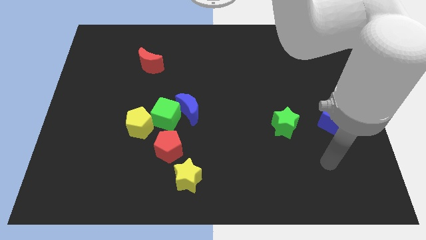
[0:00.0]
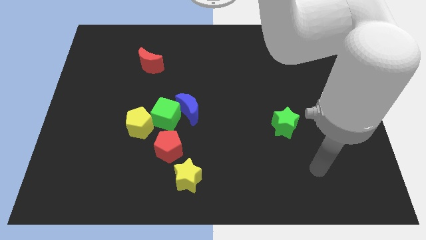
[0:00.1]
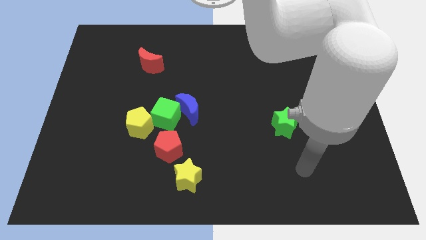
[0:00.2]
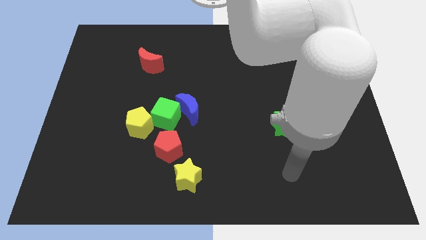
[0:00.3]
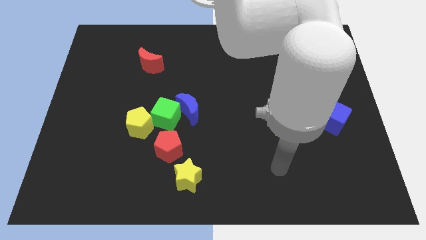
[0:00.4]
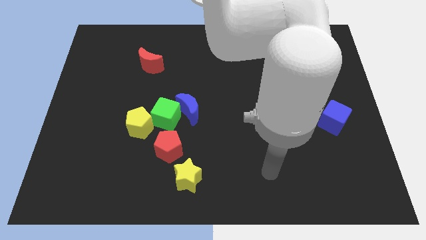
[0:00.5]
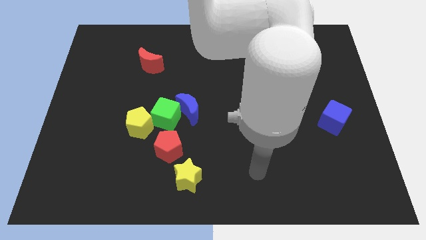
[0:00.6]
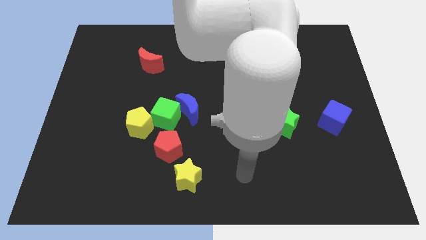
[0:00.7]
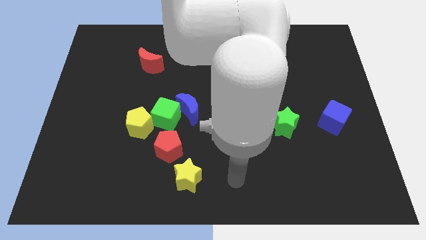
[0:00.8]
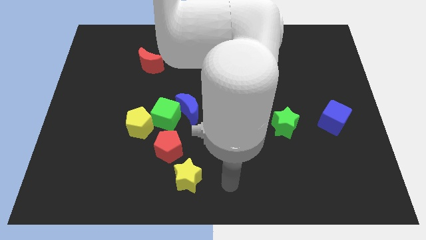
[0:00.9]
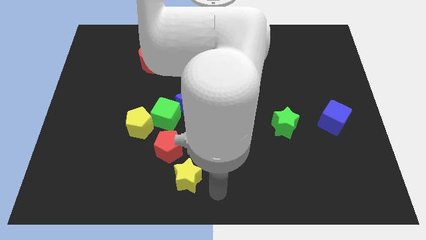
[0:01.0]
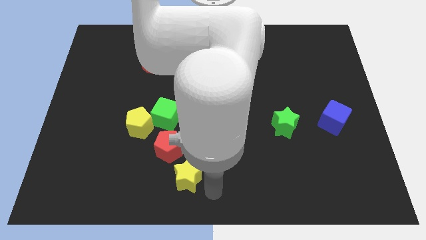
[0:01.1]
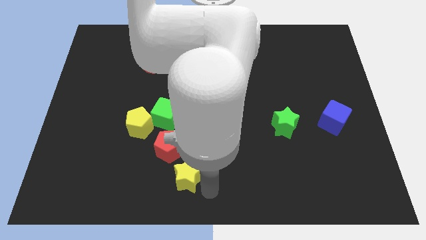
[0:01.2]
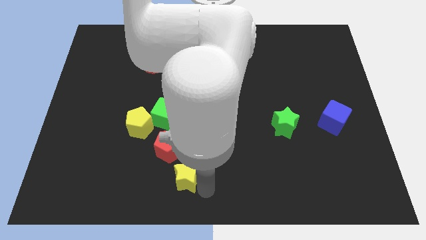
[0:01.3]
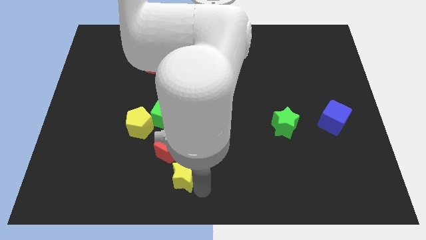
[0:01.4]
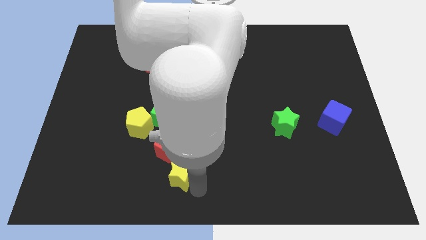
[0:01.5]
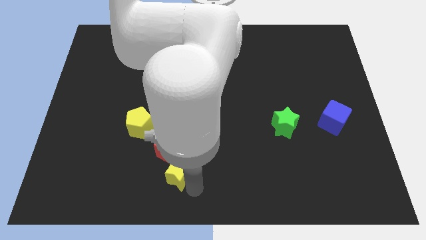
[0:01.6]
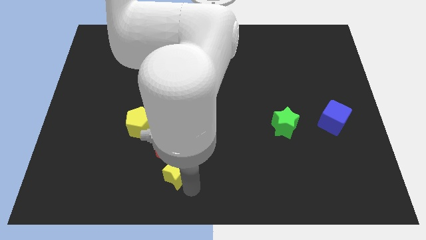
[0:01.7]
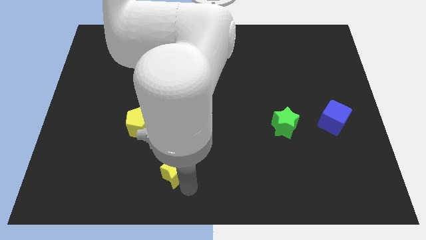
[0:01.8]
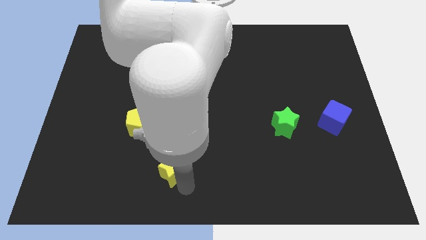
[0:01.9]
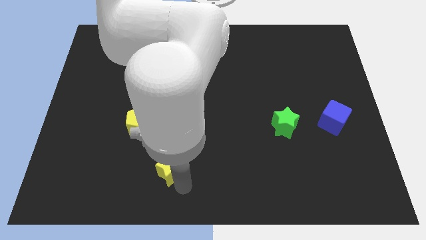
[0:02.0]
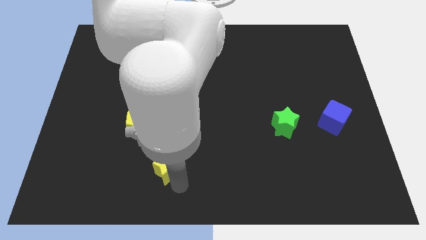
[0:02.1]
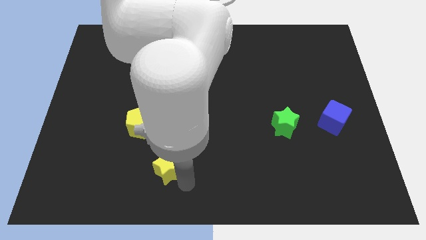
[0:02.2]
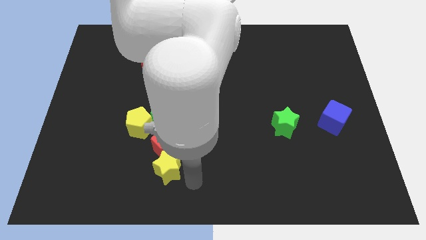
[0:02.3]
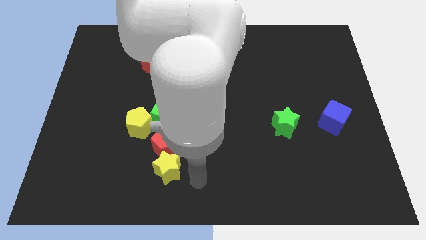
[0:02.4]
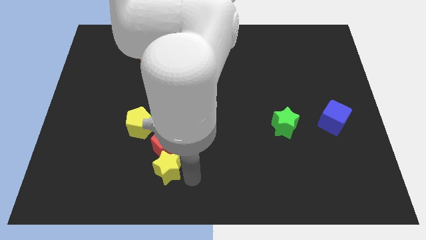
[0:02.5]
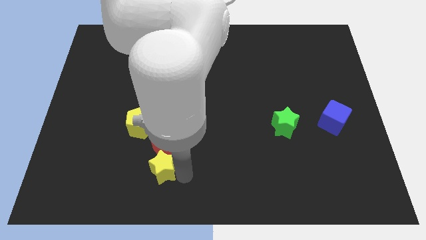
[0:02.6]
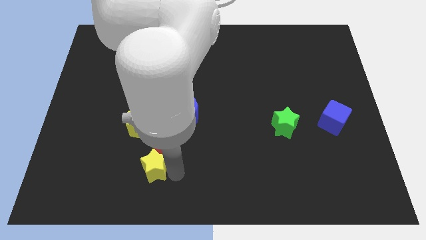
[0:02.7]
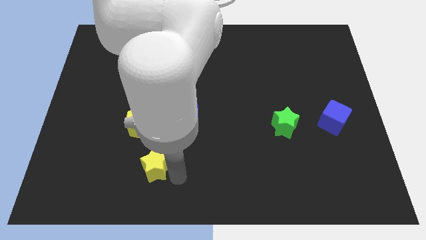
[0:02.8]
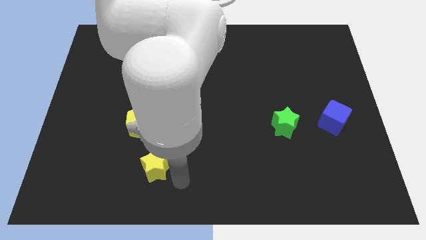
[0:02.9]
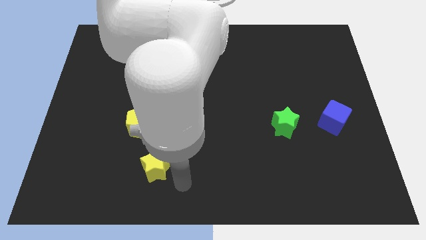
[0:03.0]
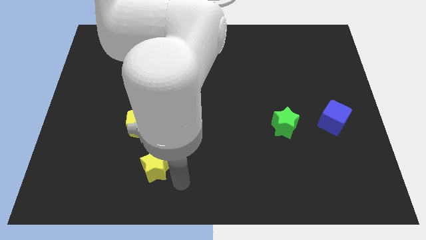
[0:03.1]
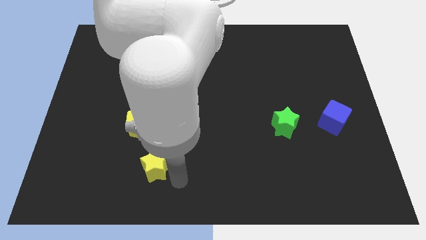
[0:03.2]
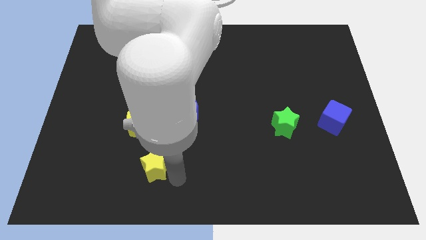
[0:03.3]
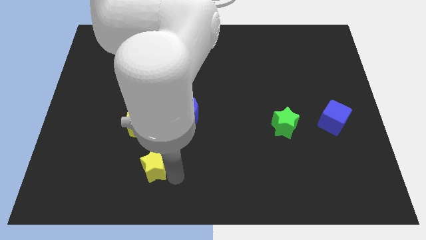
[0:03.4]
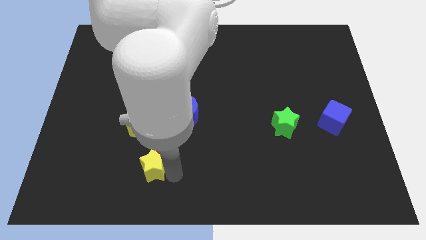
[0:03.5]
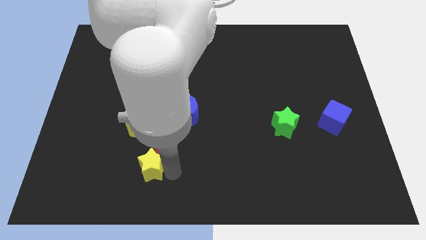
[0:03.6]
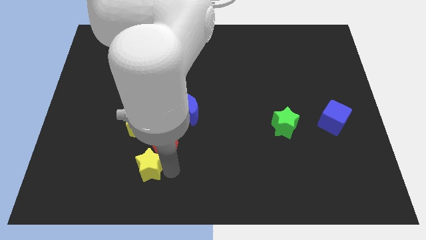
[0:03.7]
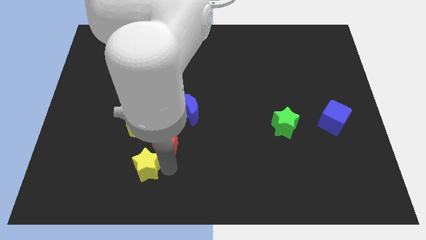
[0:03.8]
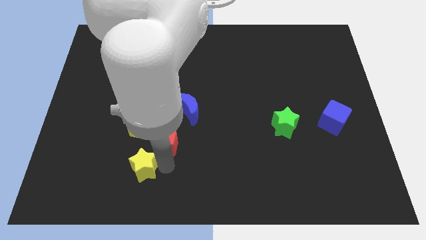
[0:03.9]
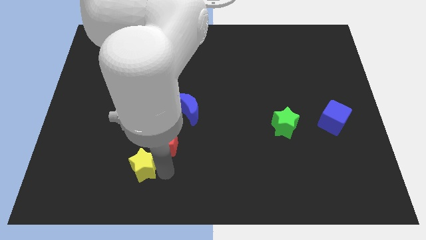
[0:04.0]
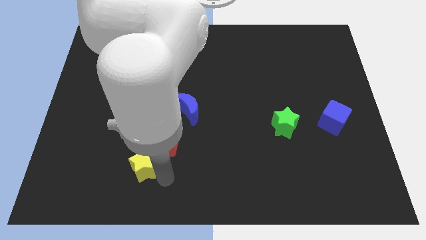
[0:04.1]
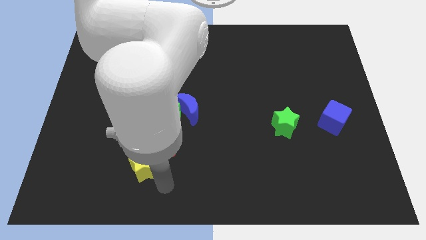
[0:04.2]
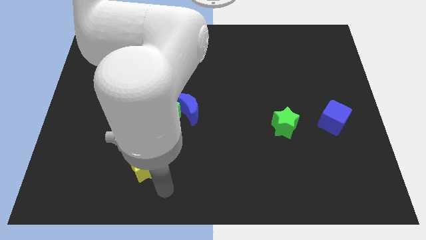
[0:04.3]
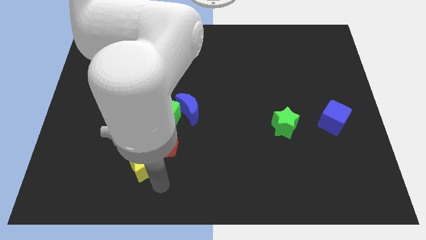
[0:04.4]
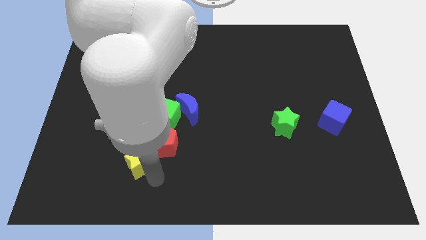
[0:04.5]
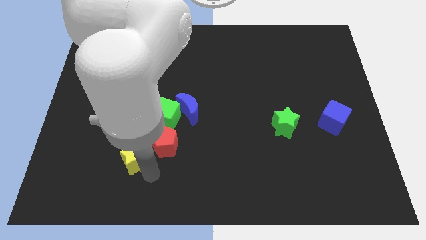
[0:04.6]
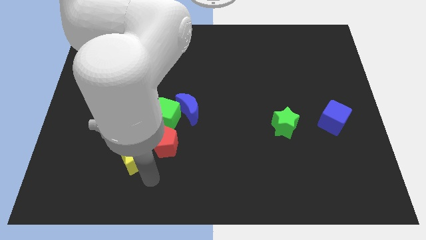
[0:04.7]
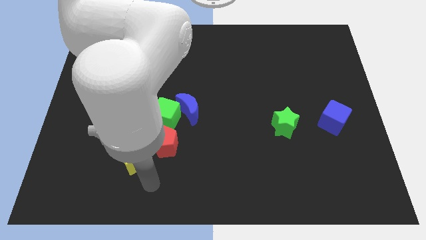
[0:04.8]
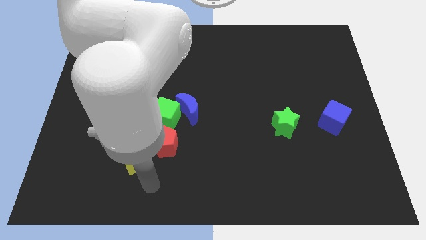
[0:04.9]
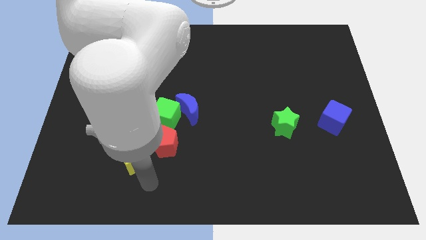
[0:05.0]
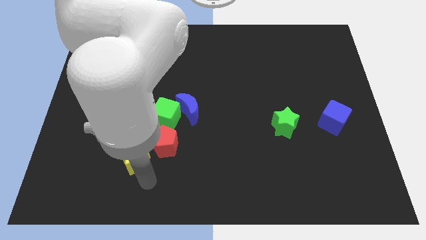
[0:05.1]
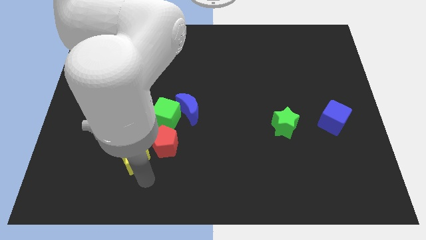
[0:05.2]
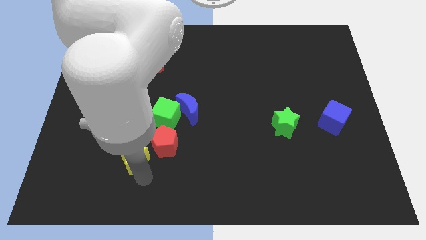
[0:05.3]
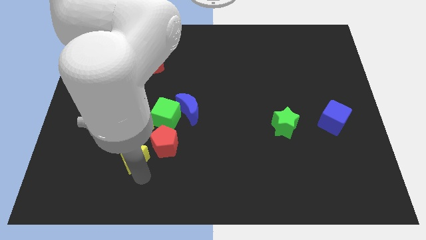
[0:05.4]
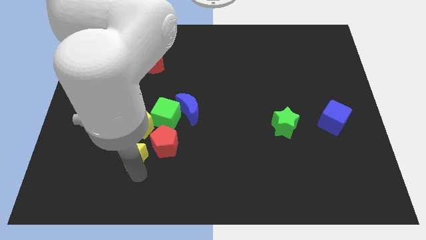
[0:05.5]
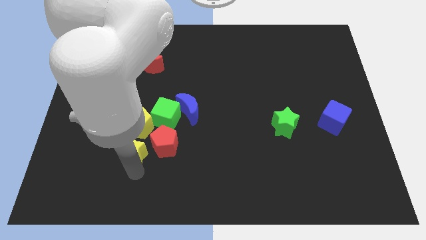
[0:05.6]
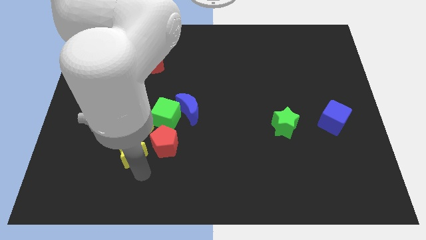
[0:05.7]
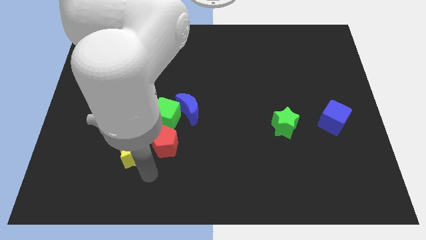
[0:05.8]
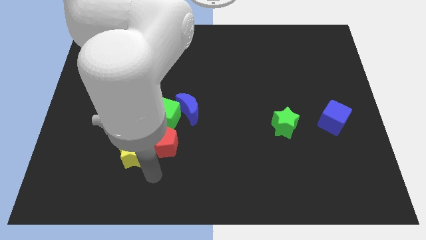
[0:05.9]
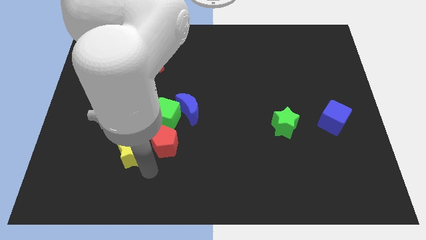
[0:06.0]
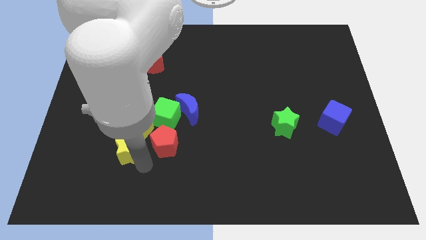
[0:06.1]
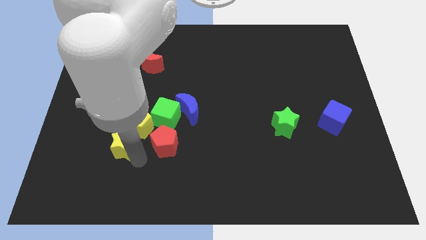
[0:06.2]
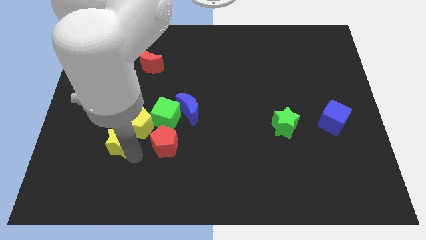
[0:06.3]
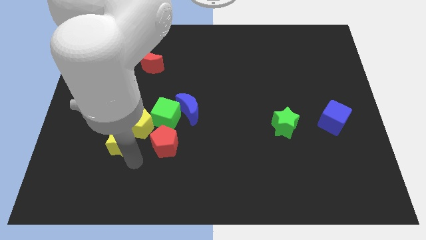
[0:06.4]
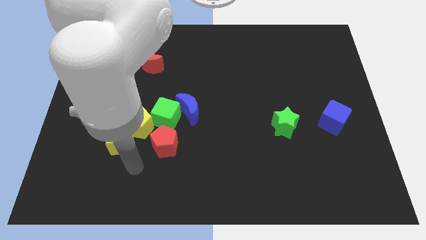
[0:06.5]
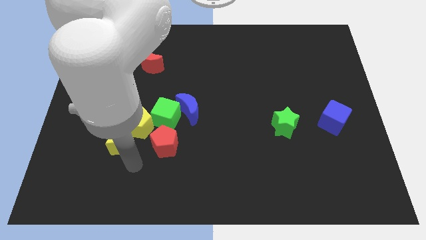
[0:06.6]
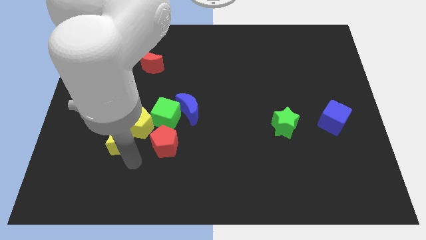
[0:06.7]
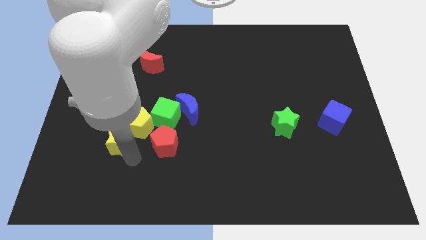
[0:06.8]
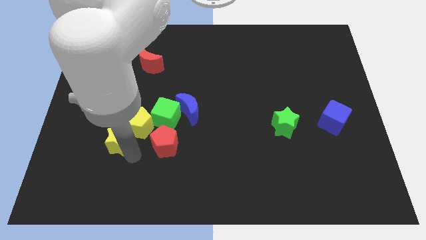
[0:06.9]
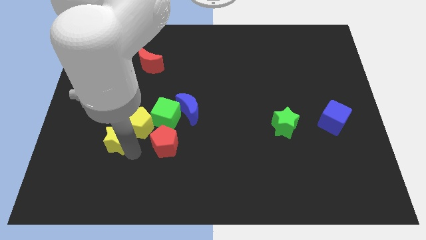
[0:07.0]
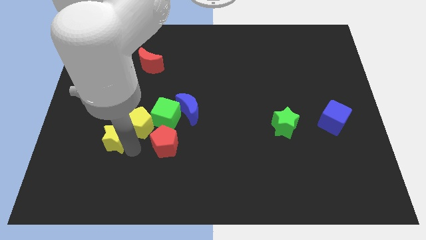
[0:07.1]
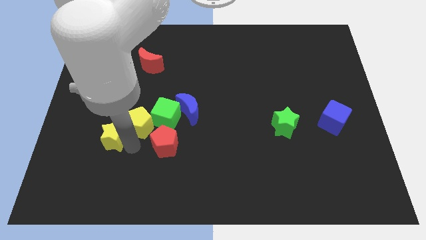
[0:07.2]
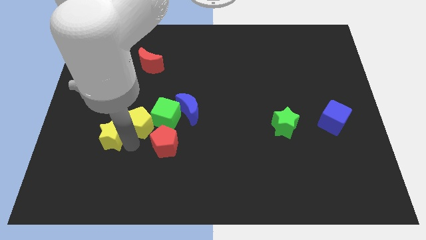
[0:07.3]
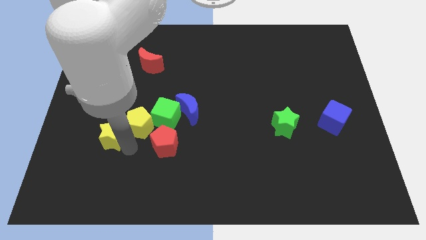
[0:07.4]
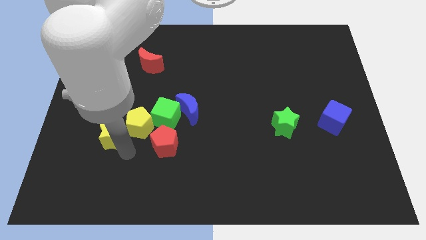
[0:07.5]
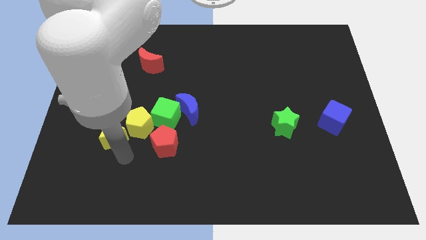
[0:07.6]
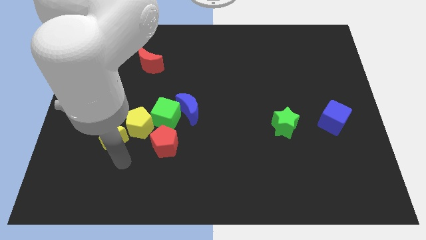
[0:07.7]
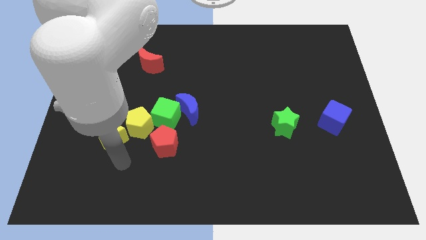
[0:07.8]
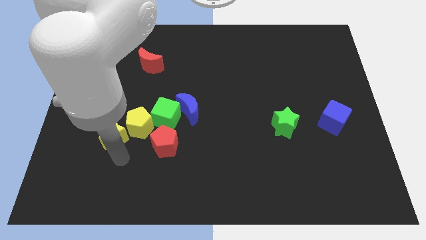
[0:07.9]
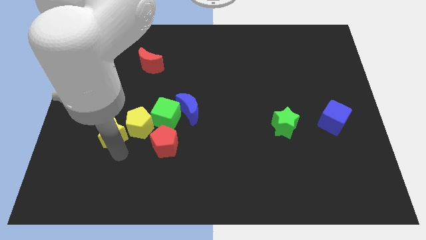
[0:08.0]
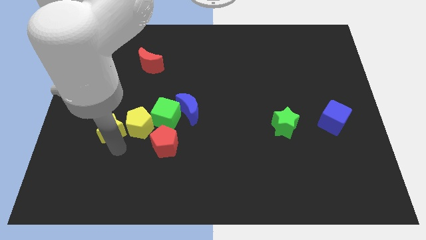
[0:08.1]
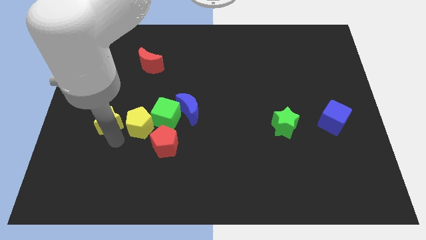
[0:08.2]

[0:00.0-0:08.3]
slide the yellow star up and to the left
